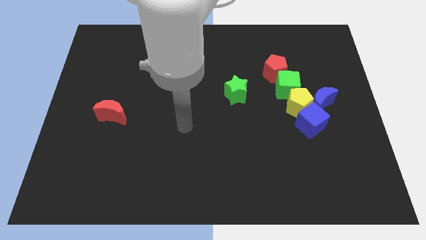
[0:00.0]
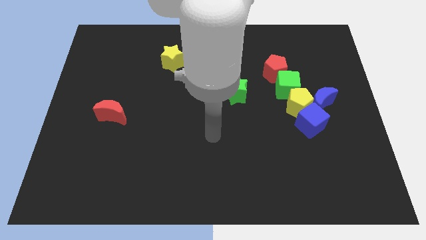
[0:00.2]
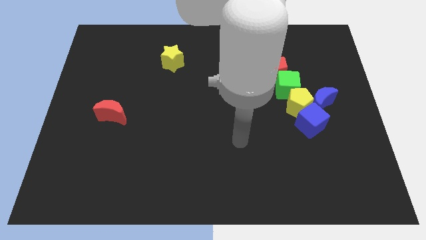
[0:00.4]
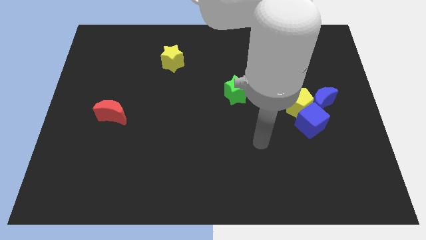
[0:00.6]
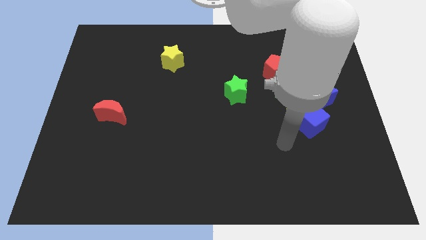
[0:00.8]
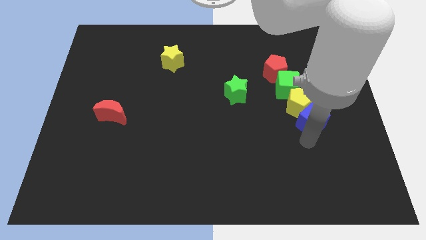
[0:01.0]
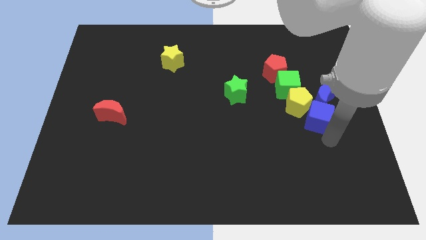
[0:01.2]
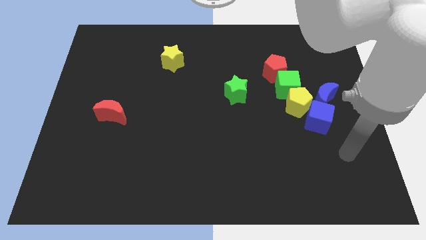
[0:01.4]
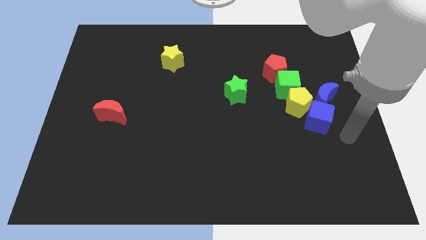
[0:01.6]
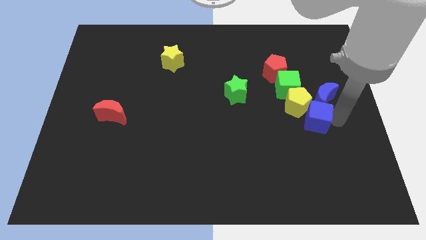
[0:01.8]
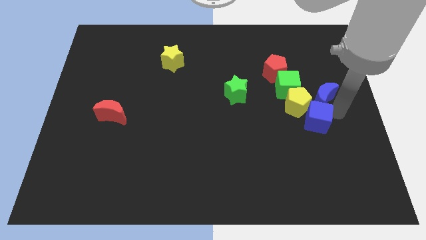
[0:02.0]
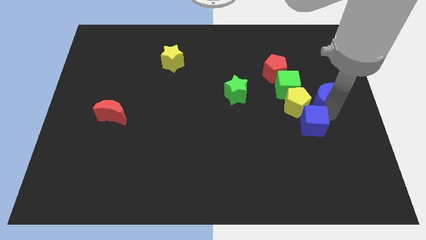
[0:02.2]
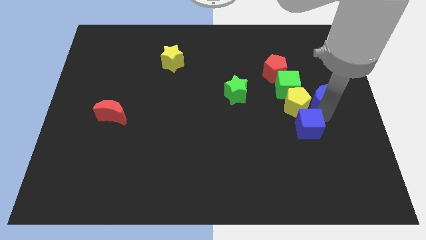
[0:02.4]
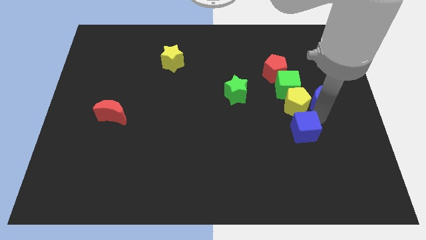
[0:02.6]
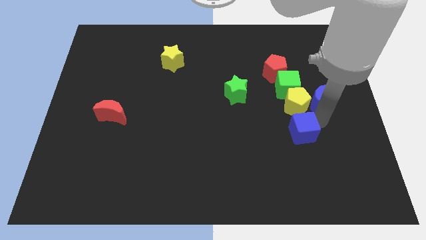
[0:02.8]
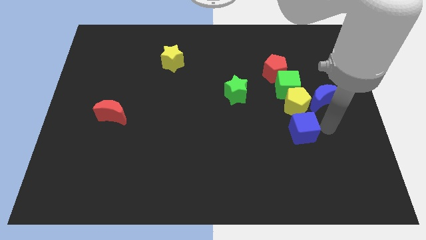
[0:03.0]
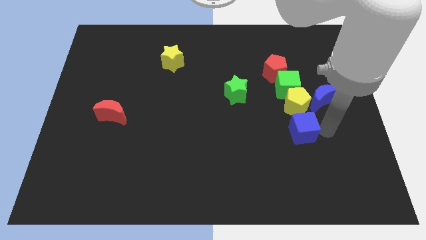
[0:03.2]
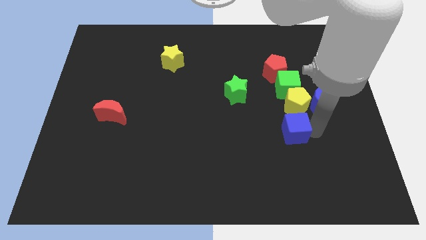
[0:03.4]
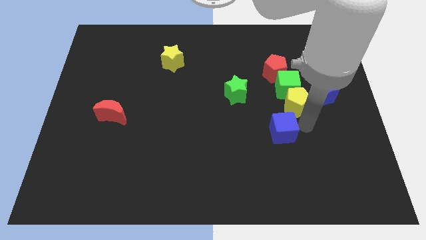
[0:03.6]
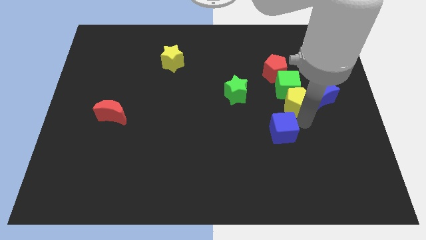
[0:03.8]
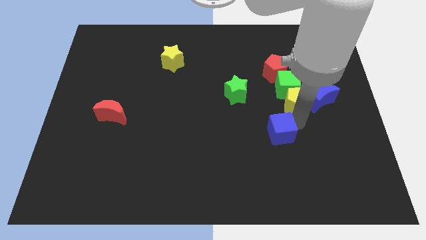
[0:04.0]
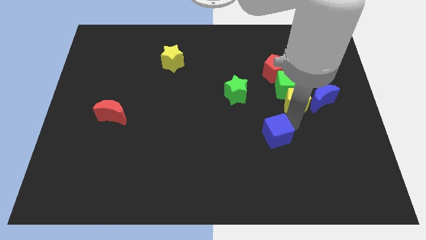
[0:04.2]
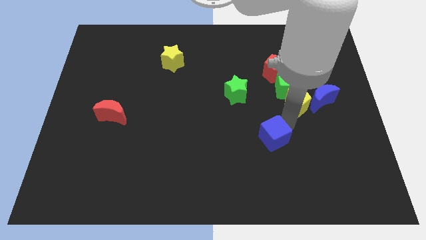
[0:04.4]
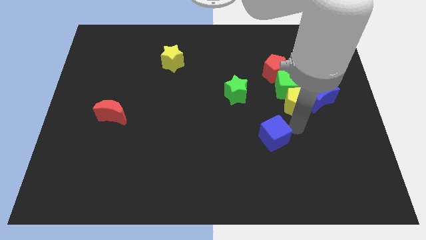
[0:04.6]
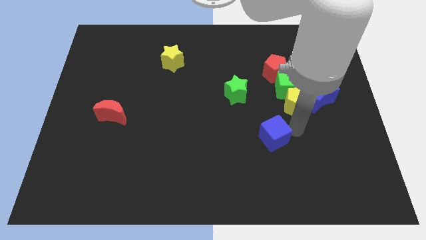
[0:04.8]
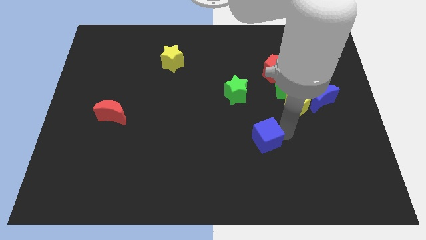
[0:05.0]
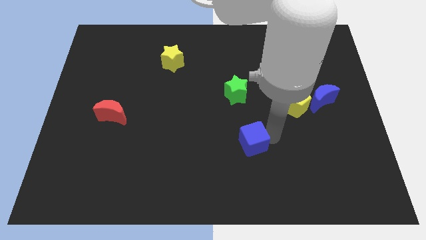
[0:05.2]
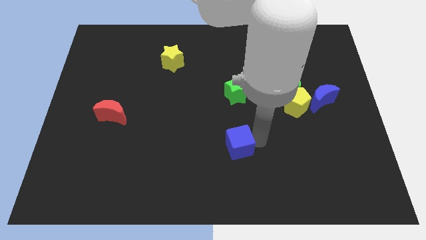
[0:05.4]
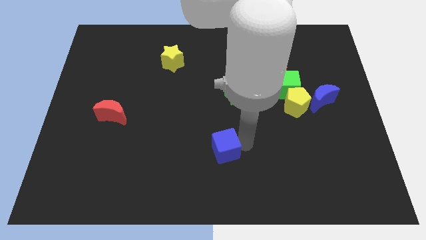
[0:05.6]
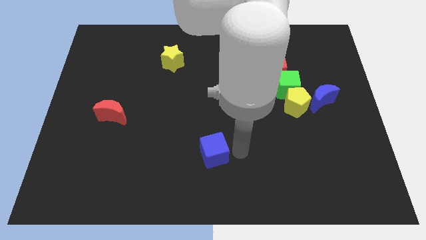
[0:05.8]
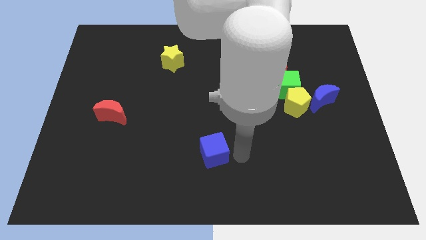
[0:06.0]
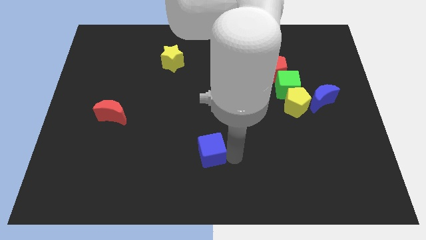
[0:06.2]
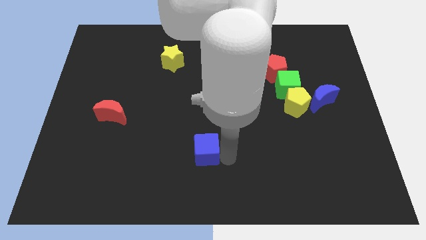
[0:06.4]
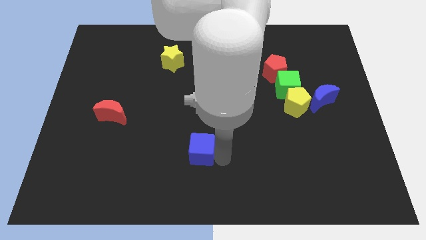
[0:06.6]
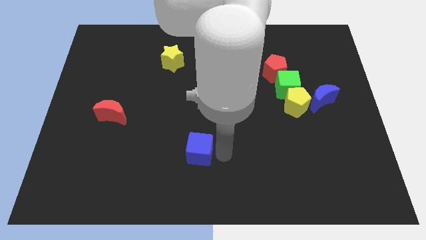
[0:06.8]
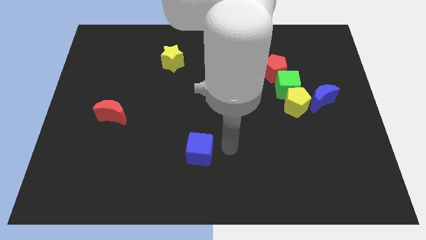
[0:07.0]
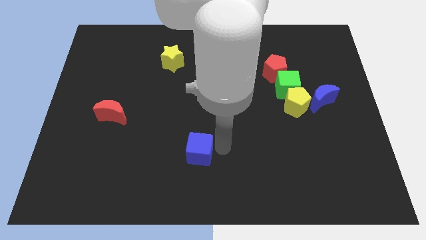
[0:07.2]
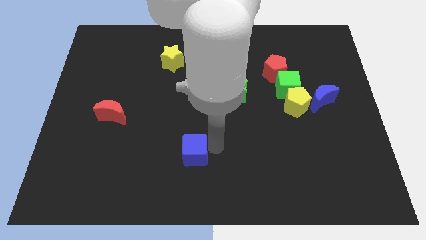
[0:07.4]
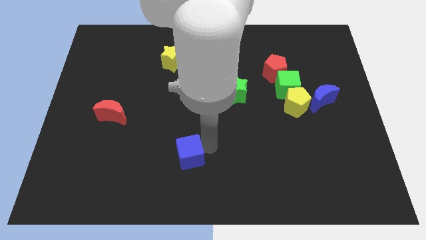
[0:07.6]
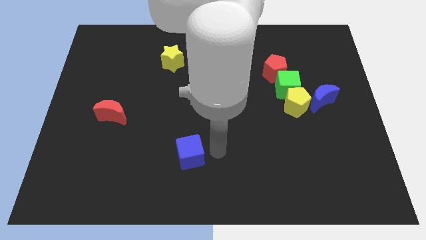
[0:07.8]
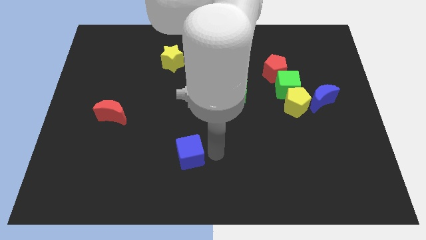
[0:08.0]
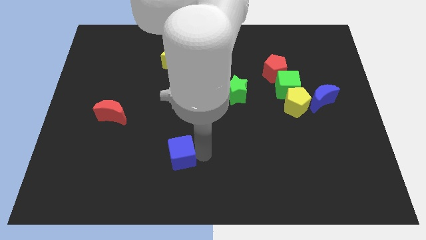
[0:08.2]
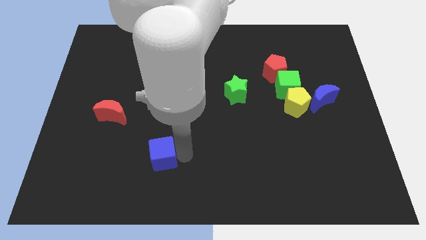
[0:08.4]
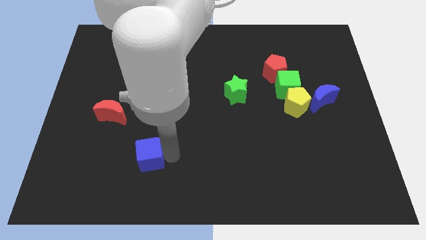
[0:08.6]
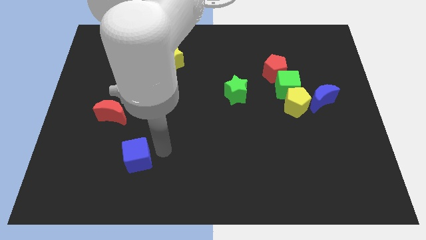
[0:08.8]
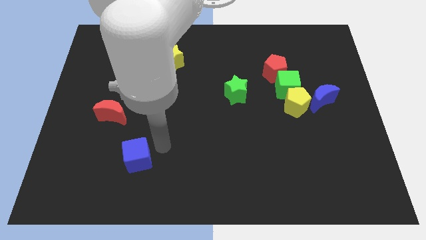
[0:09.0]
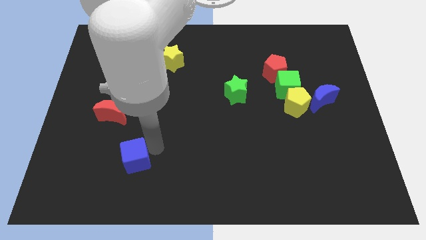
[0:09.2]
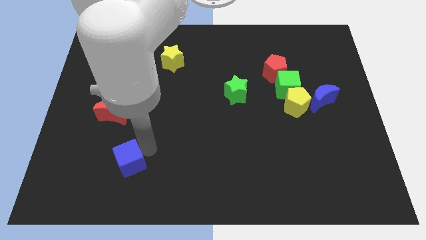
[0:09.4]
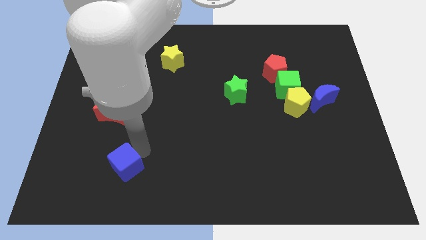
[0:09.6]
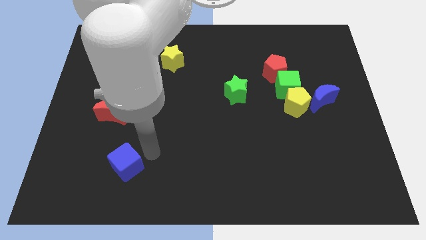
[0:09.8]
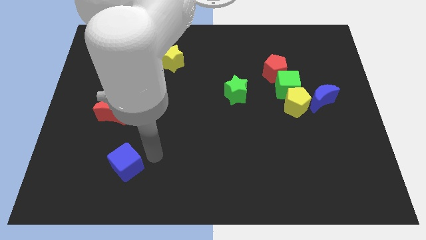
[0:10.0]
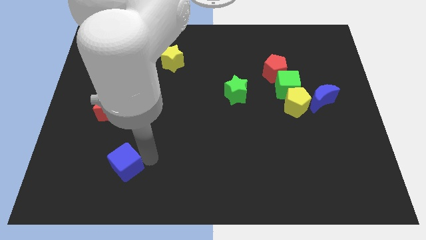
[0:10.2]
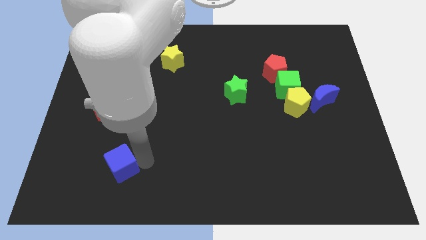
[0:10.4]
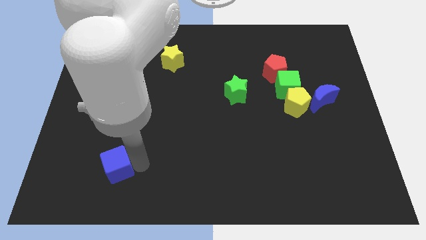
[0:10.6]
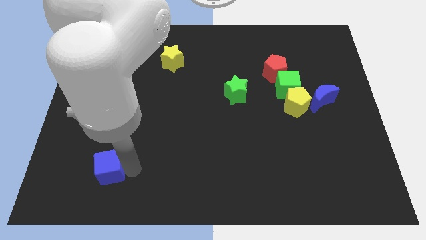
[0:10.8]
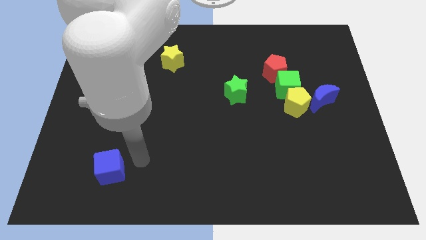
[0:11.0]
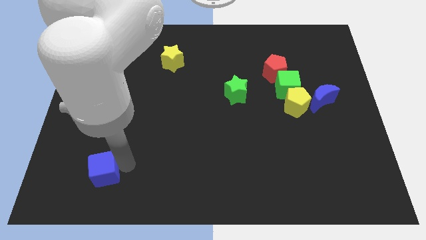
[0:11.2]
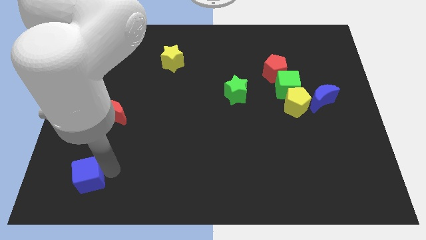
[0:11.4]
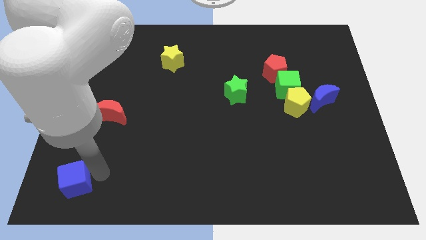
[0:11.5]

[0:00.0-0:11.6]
slide the blue cube to the bottom left
